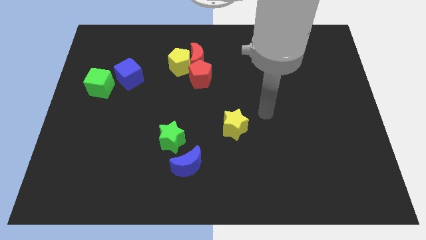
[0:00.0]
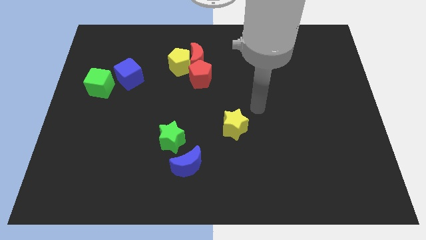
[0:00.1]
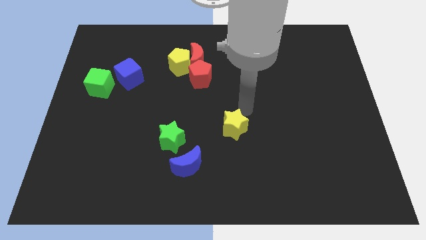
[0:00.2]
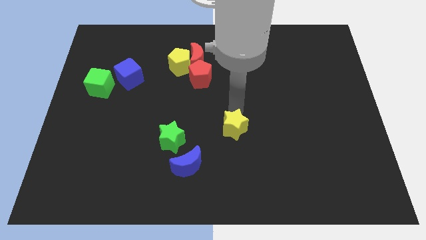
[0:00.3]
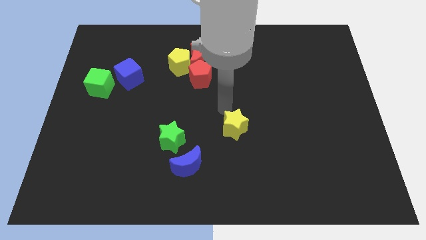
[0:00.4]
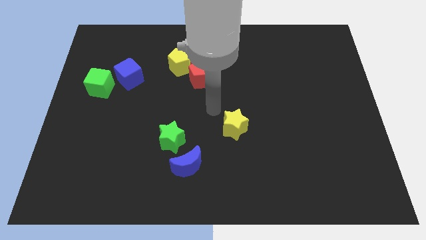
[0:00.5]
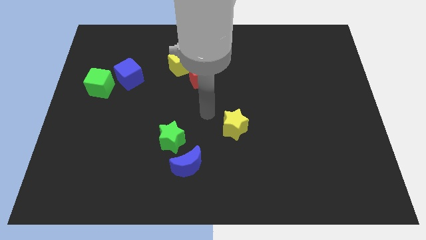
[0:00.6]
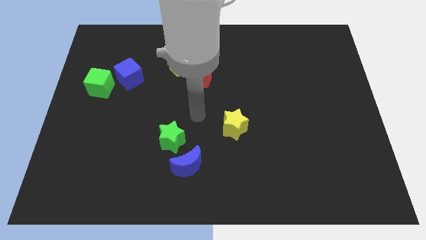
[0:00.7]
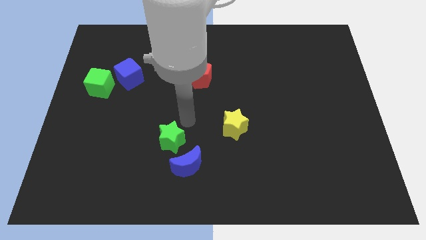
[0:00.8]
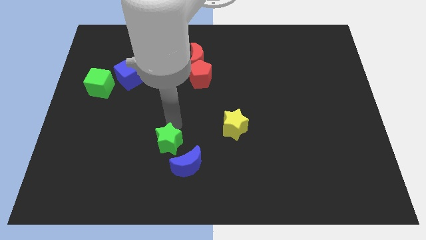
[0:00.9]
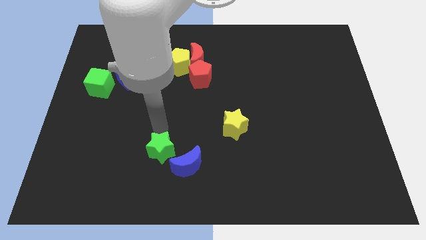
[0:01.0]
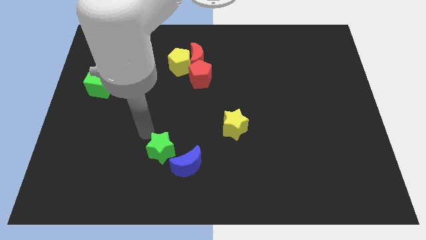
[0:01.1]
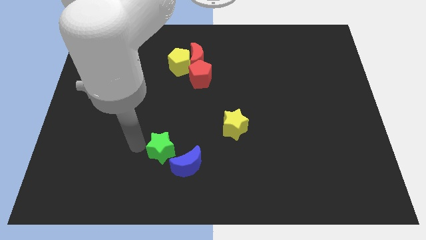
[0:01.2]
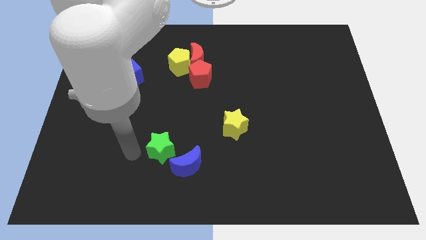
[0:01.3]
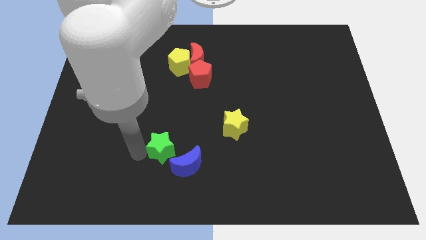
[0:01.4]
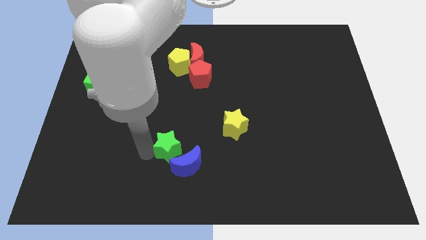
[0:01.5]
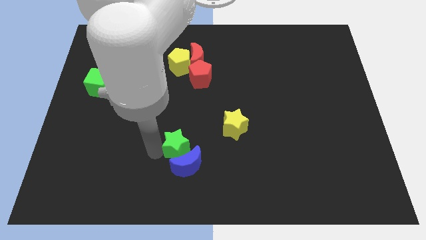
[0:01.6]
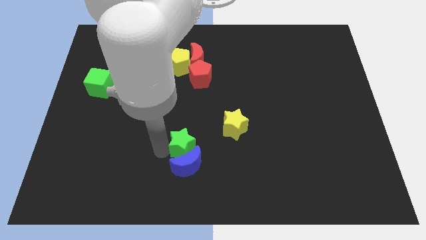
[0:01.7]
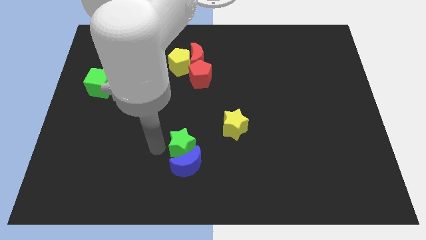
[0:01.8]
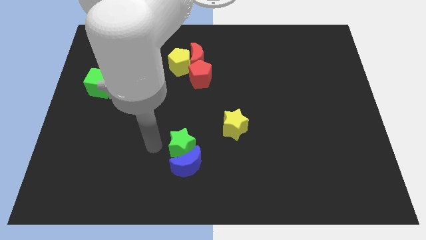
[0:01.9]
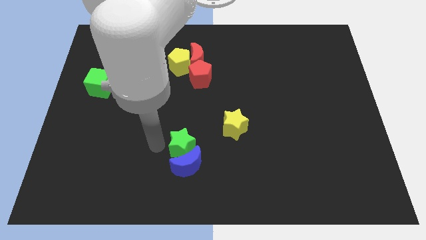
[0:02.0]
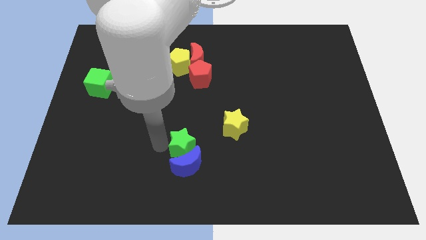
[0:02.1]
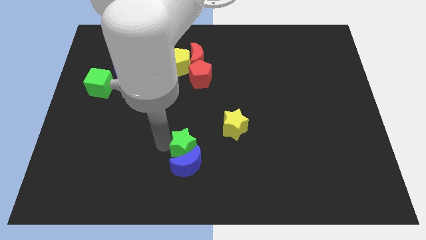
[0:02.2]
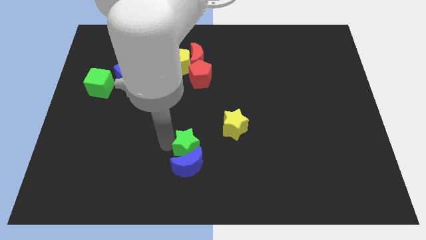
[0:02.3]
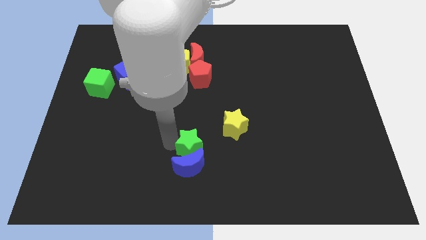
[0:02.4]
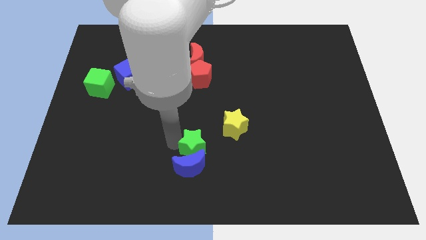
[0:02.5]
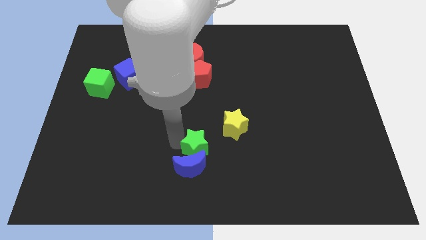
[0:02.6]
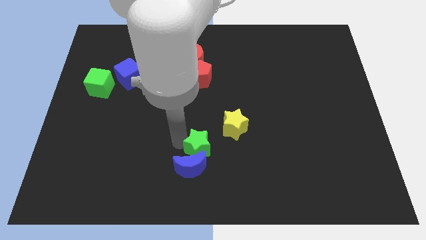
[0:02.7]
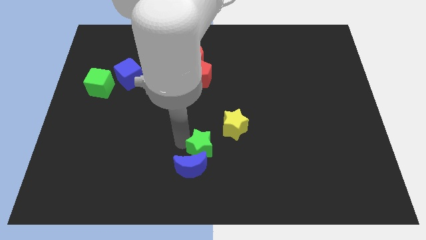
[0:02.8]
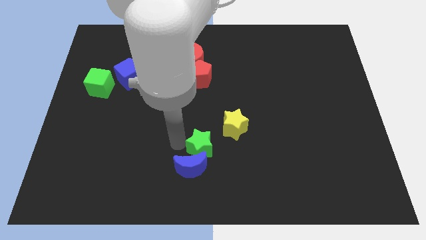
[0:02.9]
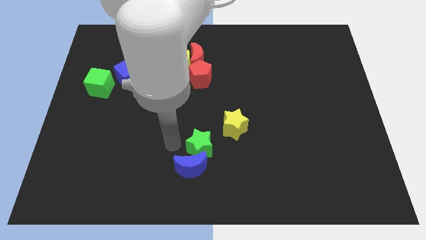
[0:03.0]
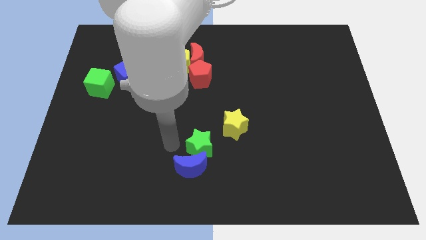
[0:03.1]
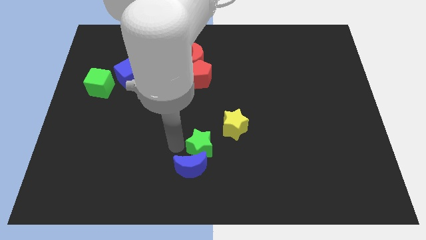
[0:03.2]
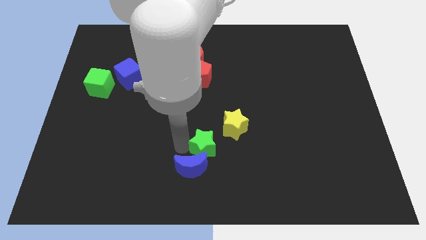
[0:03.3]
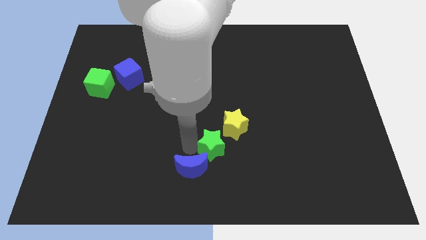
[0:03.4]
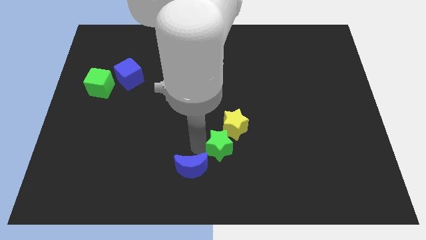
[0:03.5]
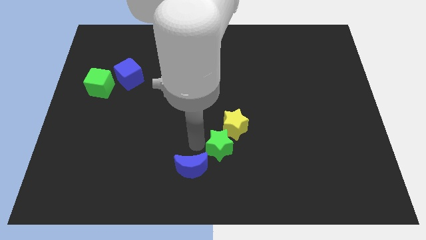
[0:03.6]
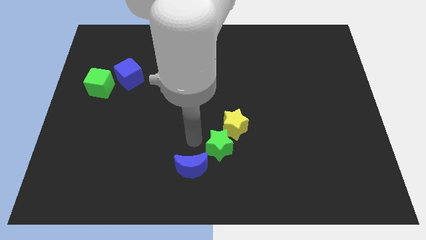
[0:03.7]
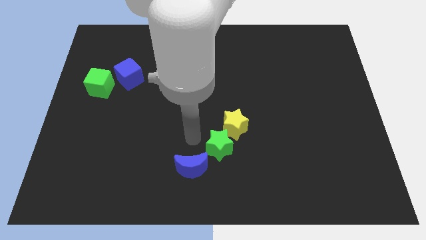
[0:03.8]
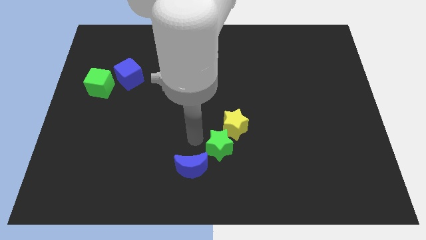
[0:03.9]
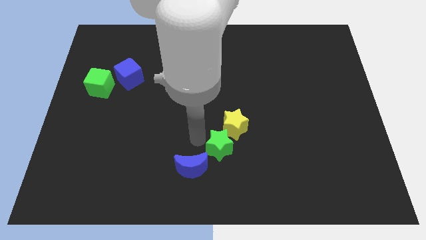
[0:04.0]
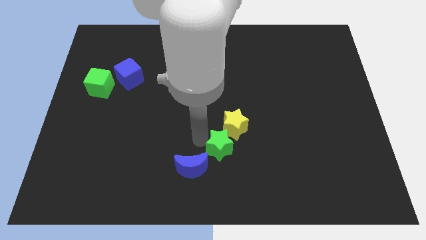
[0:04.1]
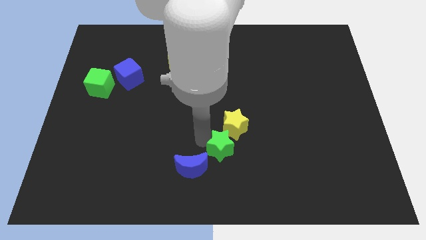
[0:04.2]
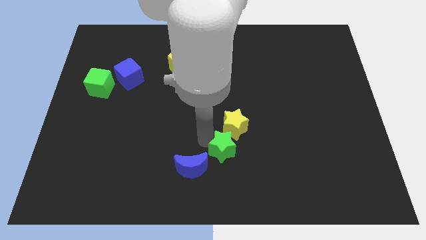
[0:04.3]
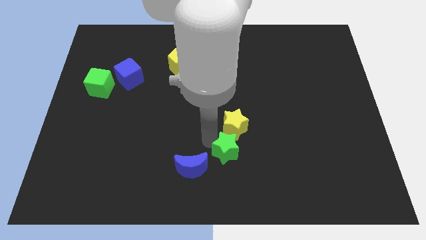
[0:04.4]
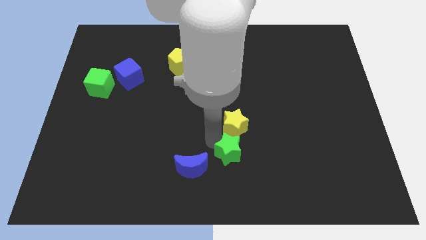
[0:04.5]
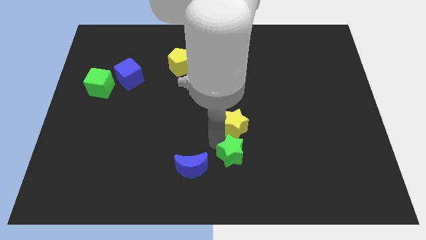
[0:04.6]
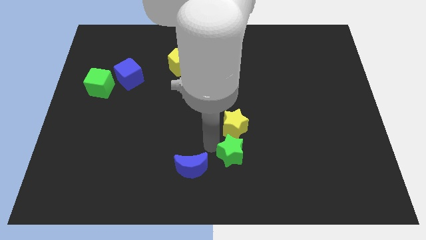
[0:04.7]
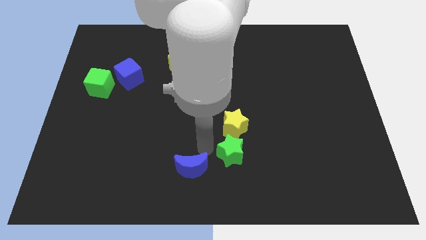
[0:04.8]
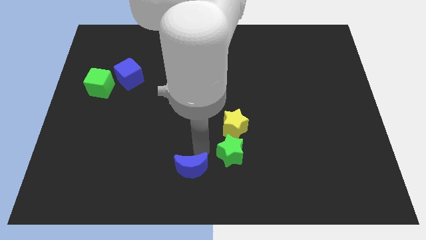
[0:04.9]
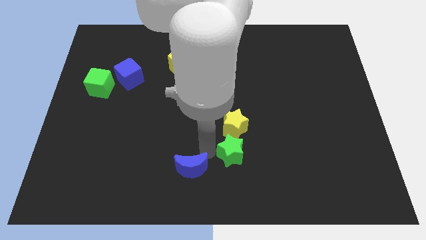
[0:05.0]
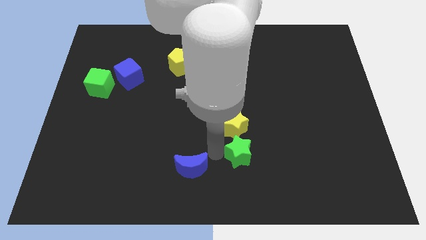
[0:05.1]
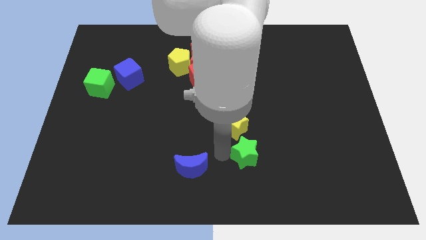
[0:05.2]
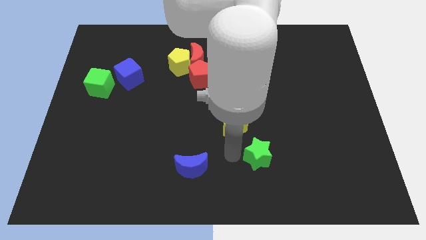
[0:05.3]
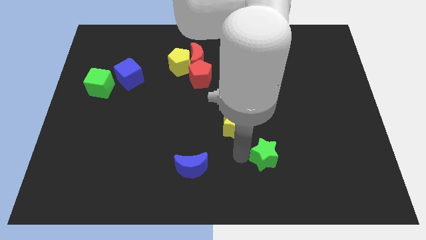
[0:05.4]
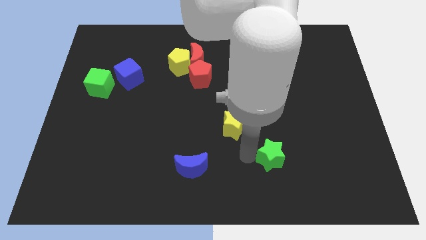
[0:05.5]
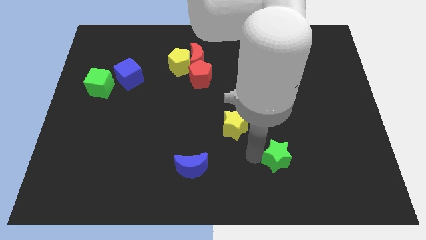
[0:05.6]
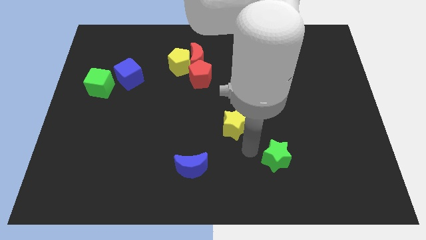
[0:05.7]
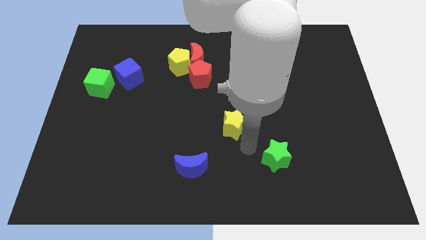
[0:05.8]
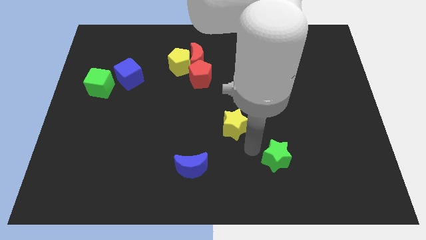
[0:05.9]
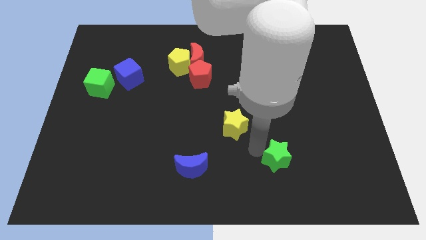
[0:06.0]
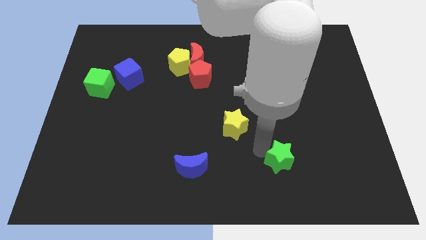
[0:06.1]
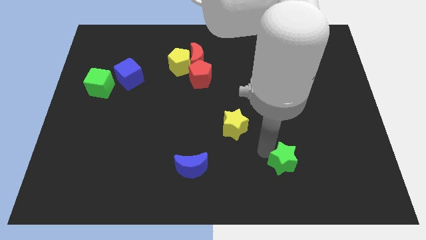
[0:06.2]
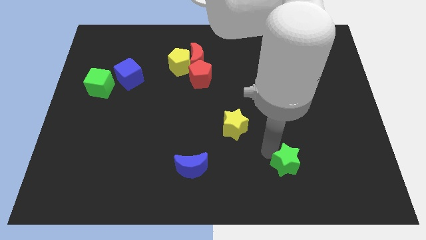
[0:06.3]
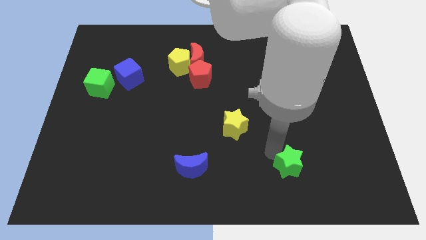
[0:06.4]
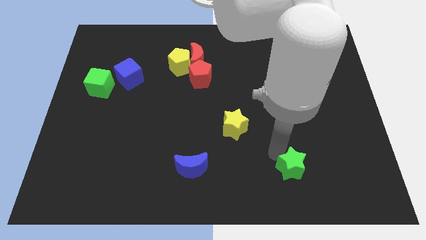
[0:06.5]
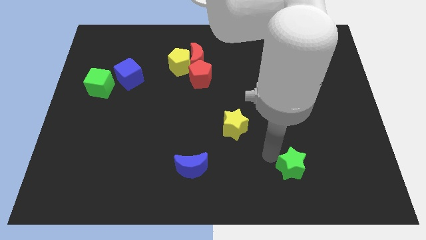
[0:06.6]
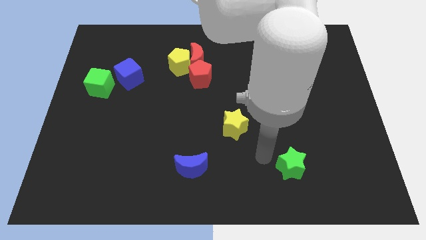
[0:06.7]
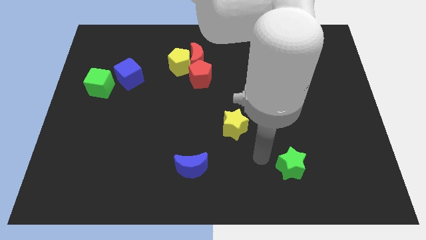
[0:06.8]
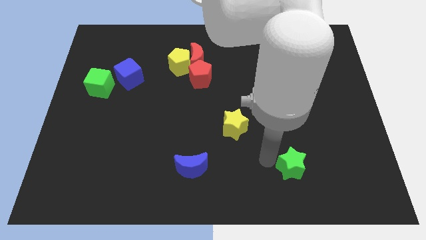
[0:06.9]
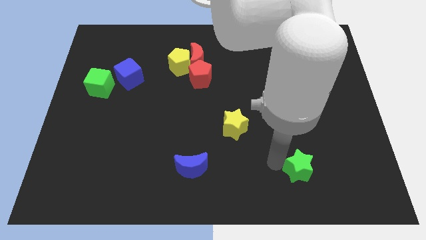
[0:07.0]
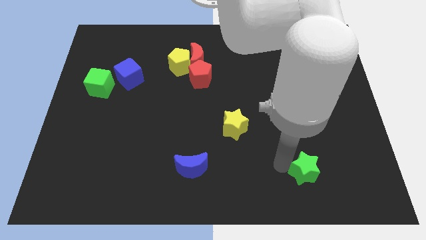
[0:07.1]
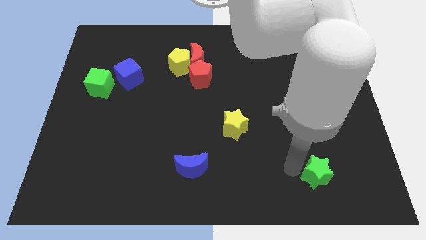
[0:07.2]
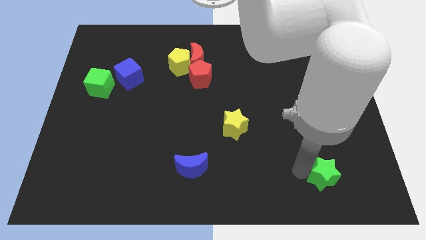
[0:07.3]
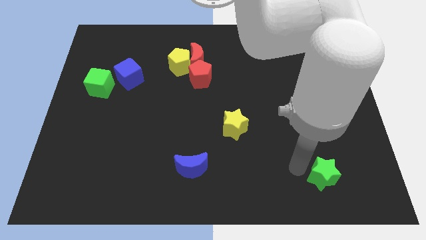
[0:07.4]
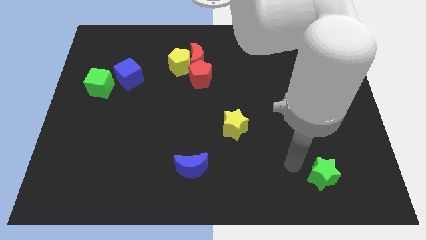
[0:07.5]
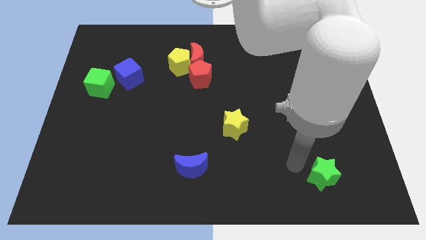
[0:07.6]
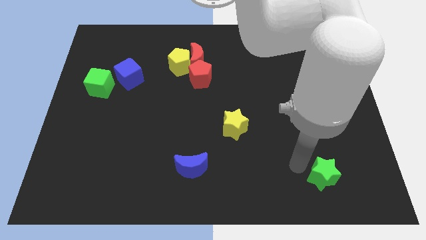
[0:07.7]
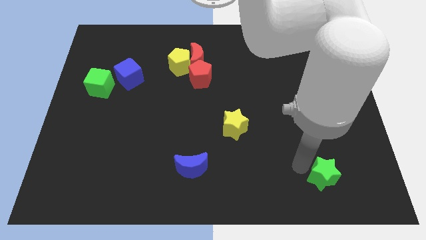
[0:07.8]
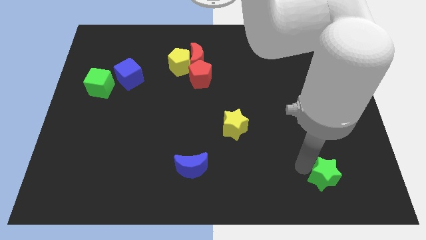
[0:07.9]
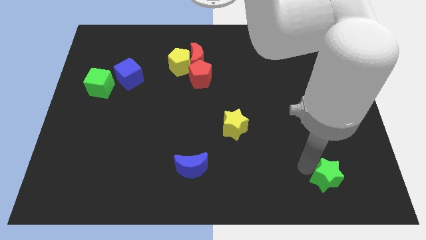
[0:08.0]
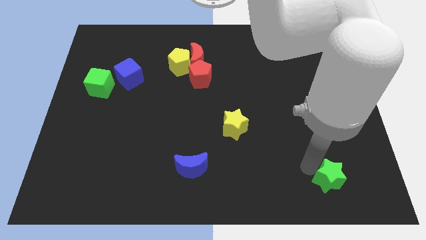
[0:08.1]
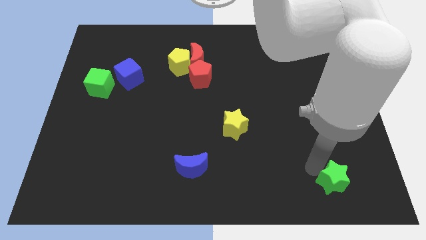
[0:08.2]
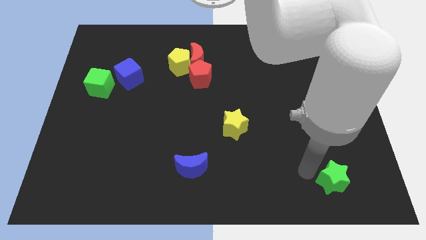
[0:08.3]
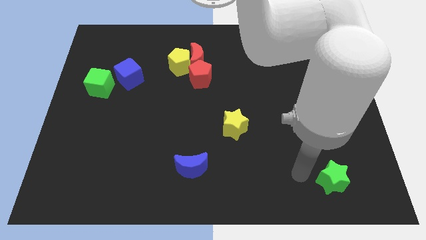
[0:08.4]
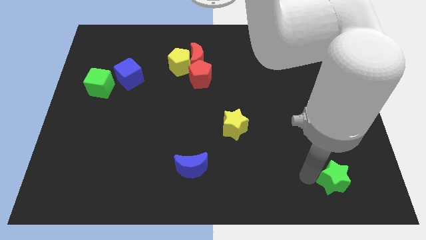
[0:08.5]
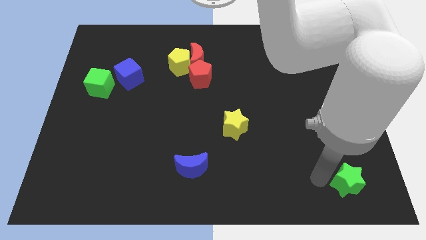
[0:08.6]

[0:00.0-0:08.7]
slide the green star to the bottom right
